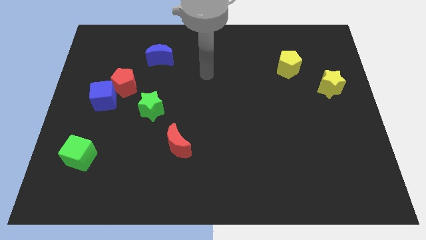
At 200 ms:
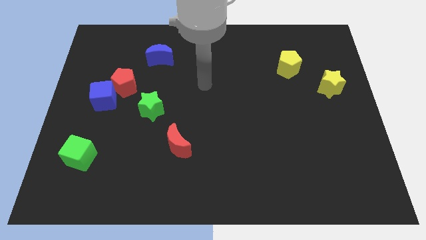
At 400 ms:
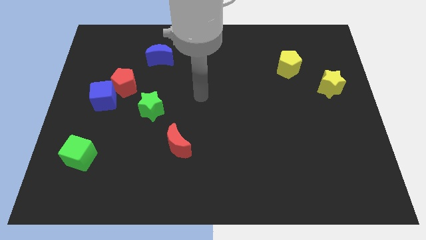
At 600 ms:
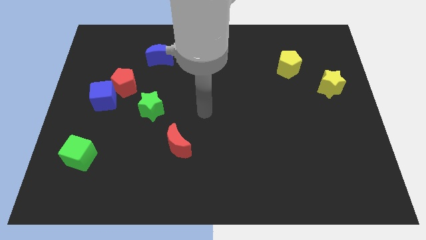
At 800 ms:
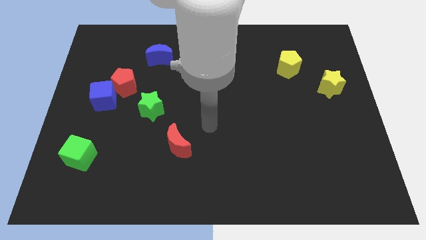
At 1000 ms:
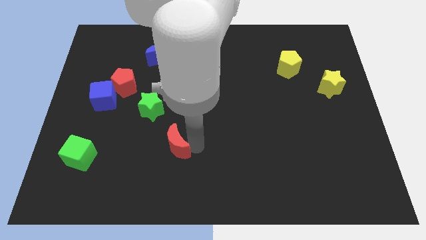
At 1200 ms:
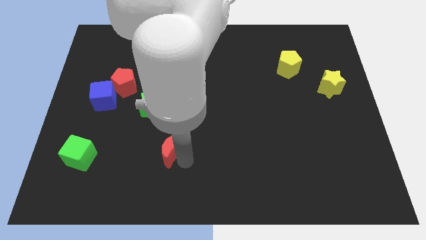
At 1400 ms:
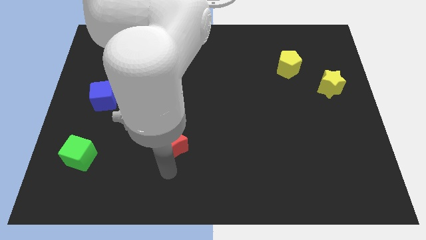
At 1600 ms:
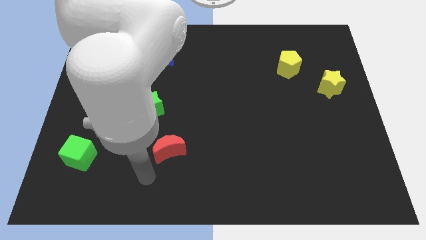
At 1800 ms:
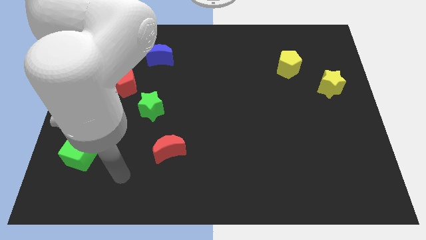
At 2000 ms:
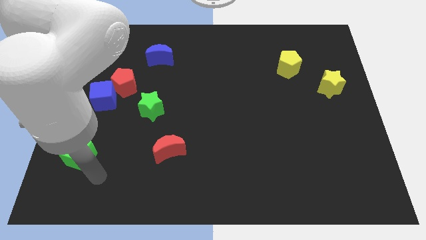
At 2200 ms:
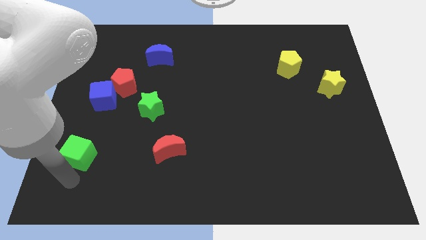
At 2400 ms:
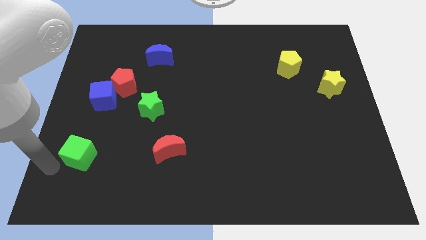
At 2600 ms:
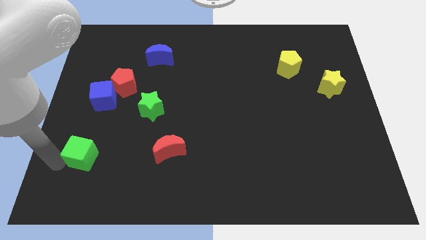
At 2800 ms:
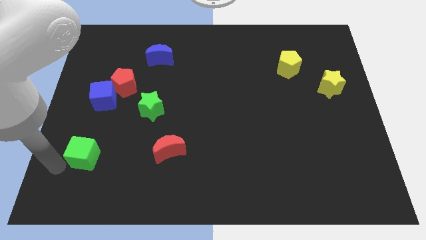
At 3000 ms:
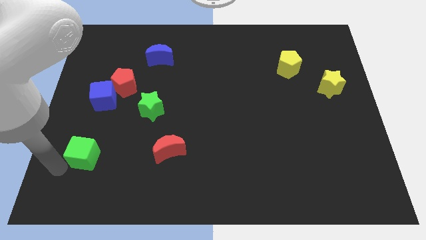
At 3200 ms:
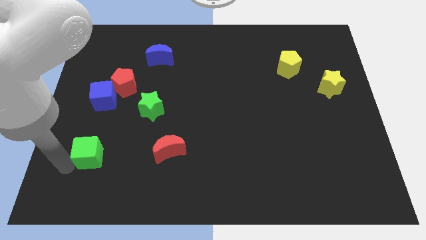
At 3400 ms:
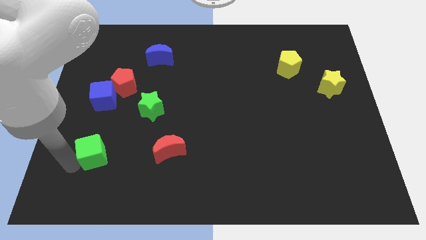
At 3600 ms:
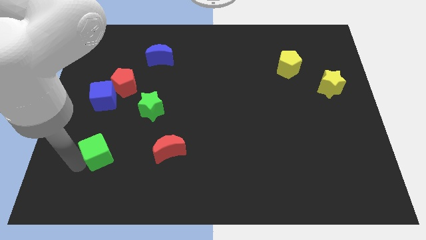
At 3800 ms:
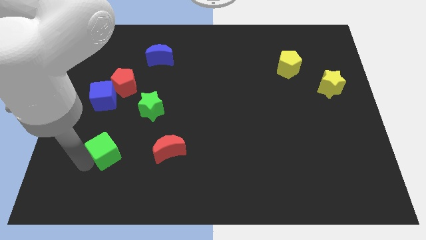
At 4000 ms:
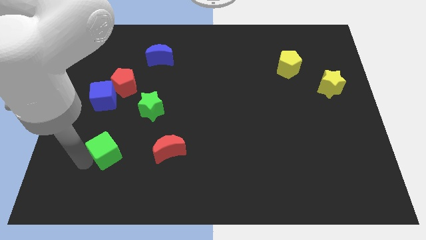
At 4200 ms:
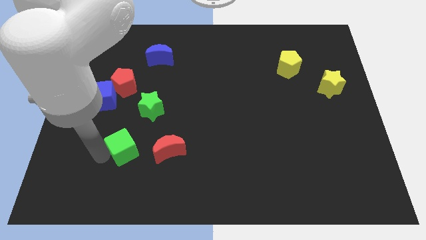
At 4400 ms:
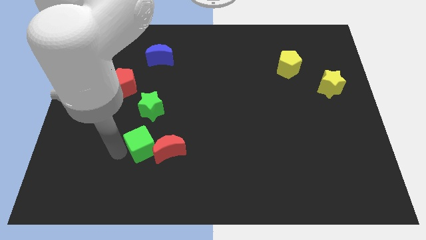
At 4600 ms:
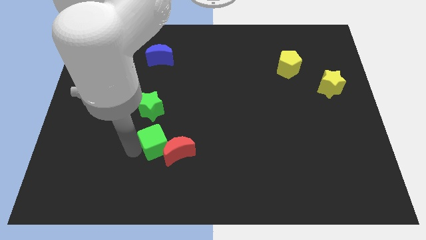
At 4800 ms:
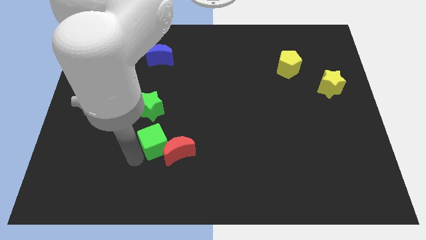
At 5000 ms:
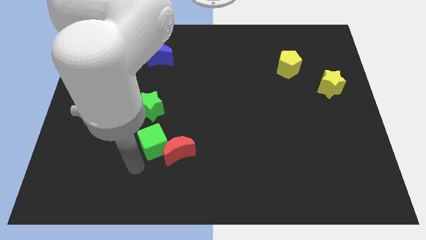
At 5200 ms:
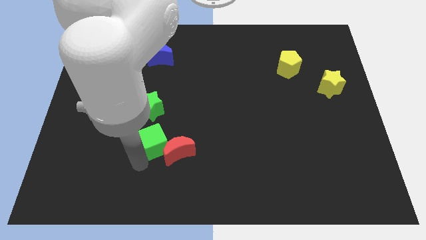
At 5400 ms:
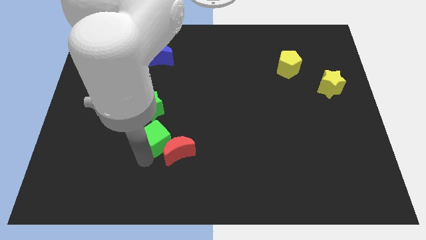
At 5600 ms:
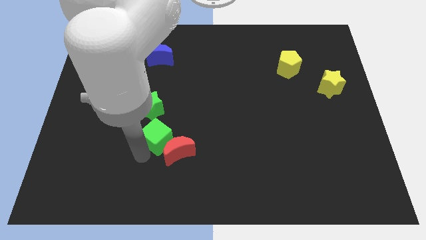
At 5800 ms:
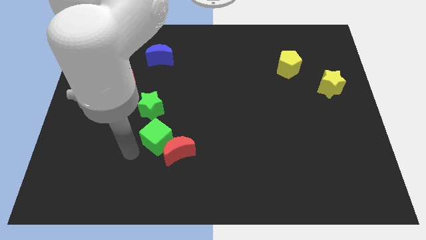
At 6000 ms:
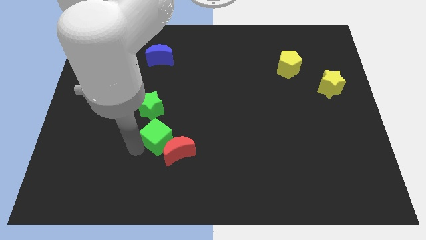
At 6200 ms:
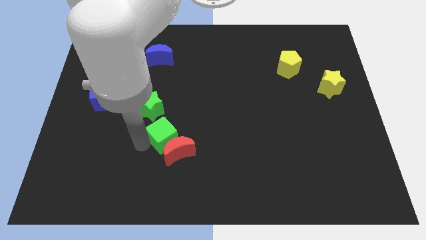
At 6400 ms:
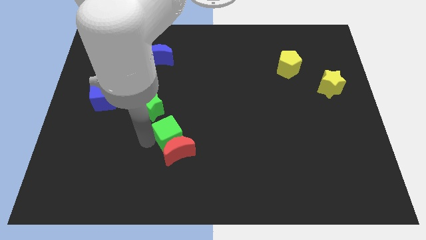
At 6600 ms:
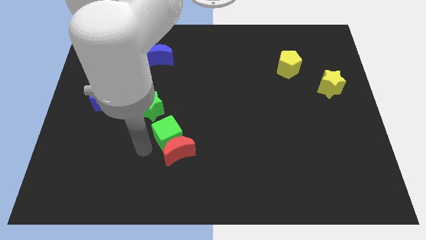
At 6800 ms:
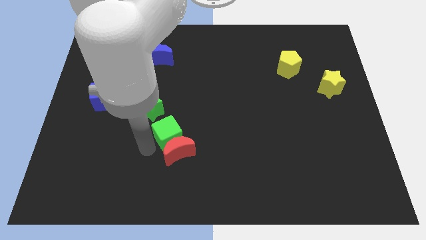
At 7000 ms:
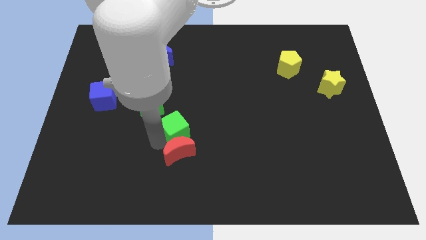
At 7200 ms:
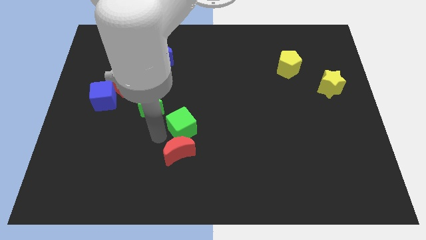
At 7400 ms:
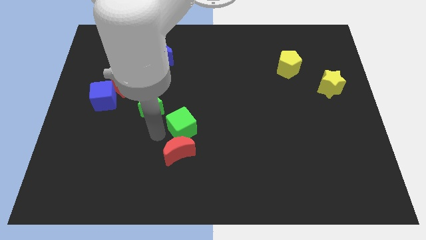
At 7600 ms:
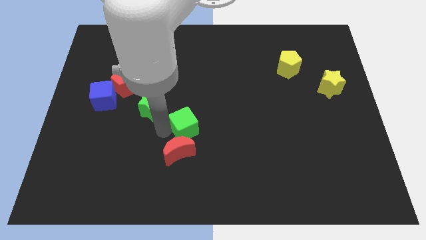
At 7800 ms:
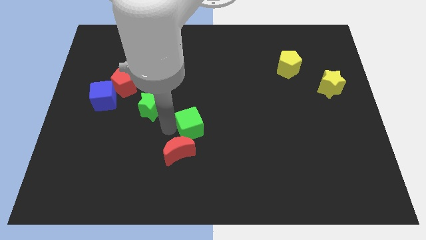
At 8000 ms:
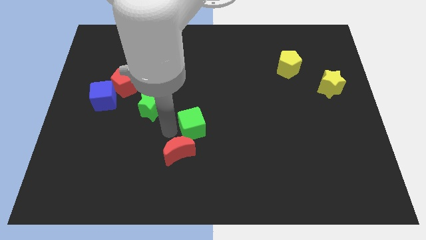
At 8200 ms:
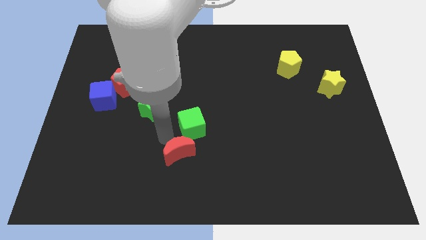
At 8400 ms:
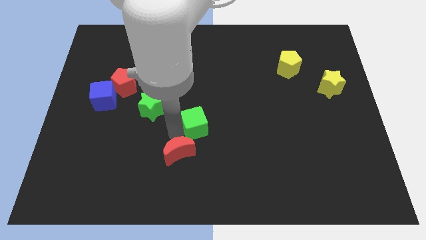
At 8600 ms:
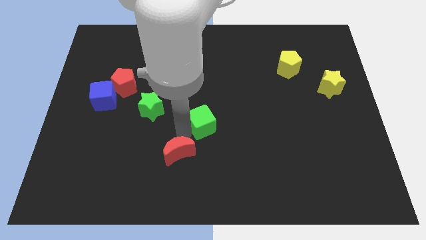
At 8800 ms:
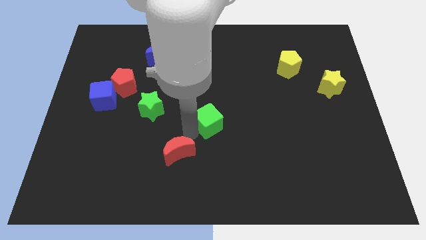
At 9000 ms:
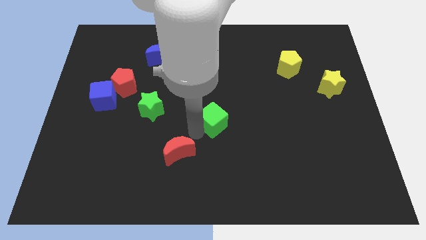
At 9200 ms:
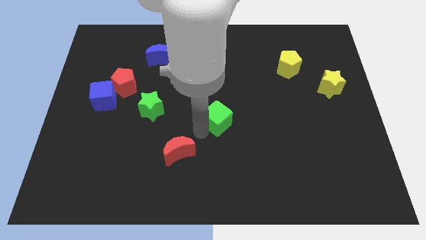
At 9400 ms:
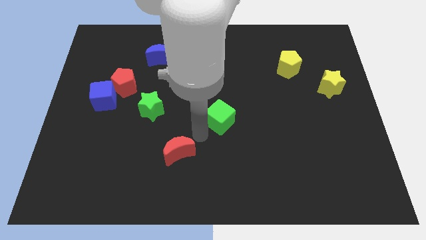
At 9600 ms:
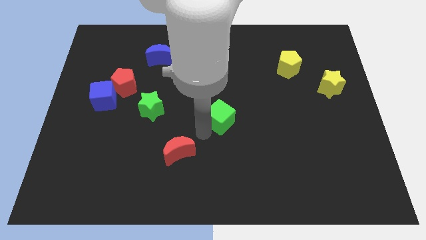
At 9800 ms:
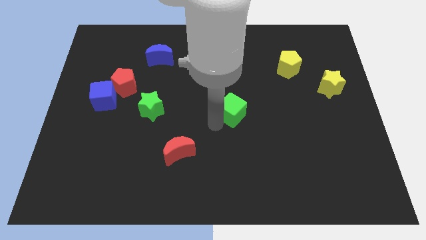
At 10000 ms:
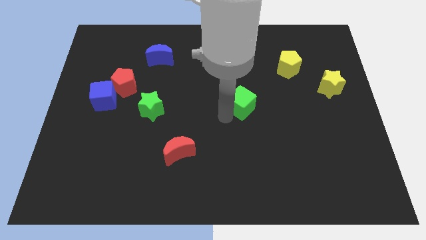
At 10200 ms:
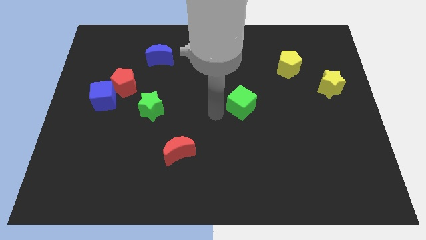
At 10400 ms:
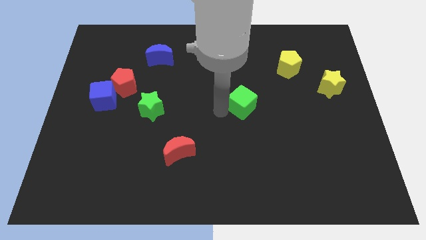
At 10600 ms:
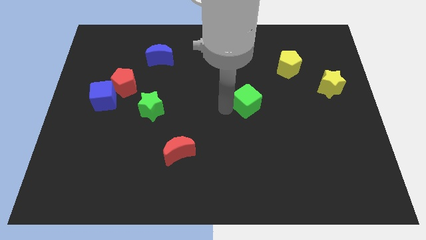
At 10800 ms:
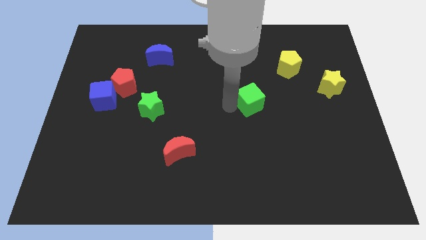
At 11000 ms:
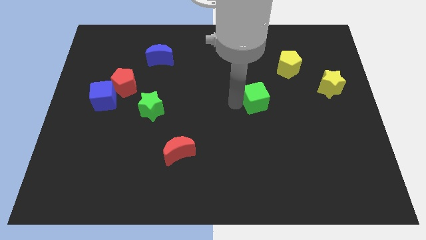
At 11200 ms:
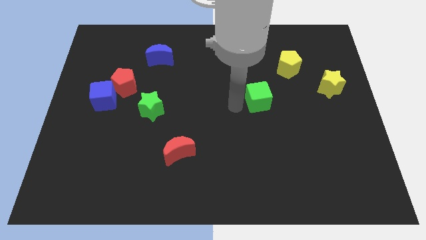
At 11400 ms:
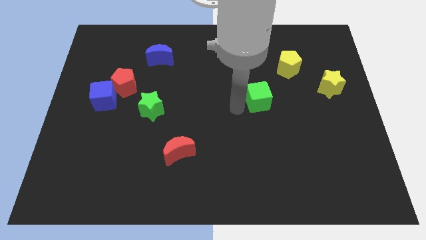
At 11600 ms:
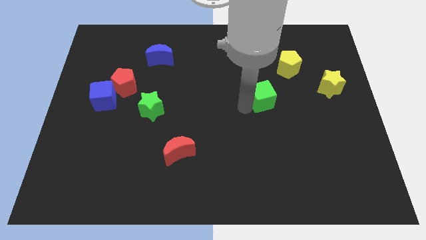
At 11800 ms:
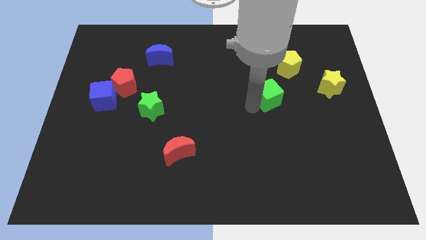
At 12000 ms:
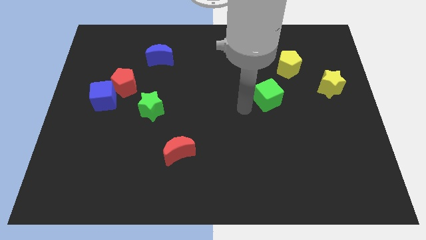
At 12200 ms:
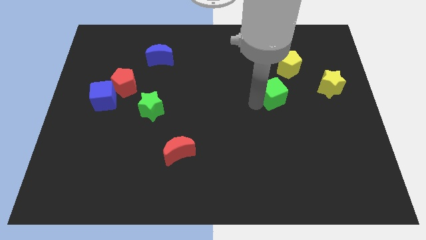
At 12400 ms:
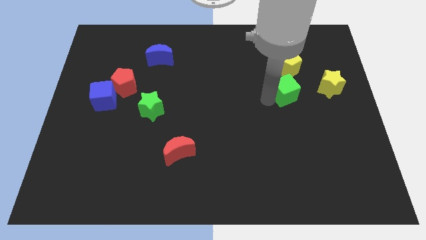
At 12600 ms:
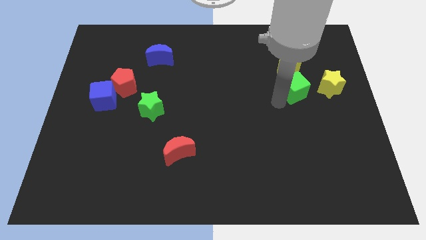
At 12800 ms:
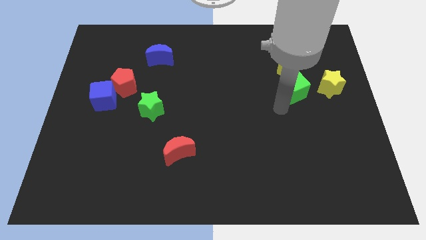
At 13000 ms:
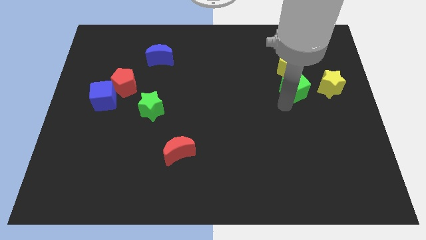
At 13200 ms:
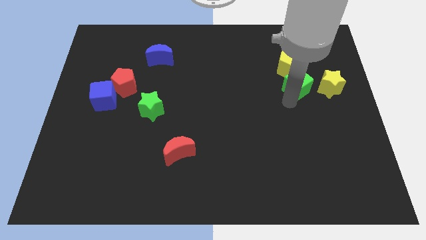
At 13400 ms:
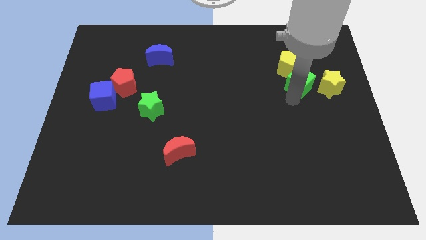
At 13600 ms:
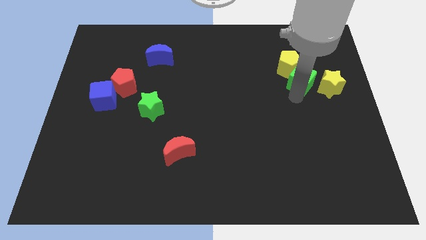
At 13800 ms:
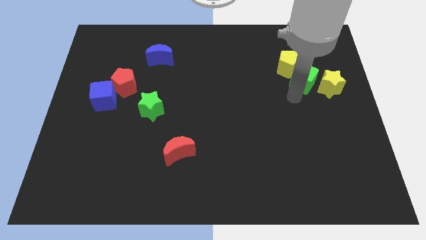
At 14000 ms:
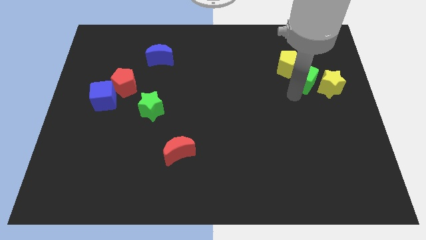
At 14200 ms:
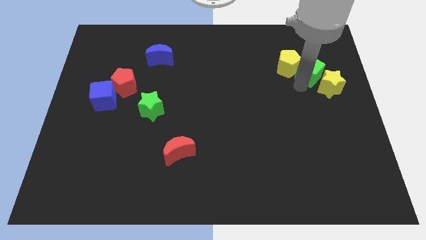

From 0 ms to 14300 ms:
put the green cube above the yellow star
